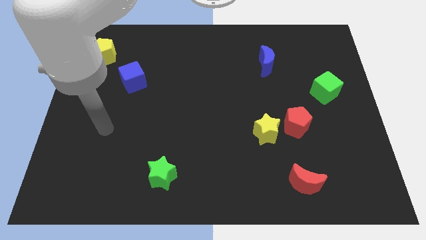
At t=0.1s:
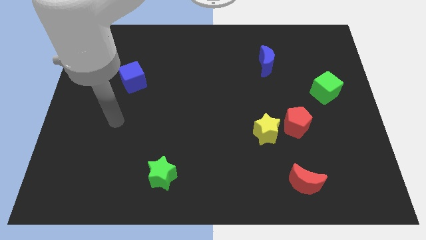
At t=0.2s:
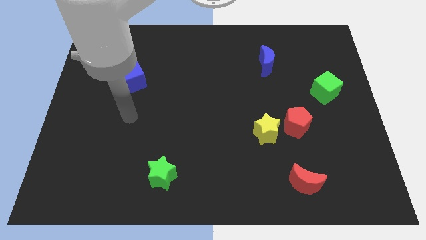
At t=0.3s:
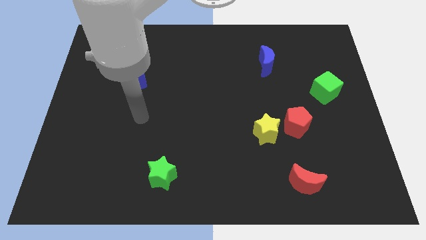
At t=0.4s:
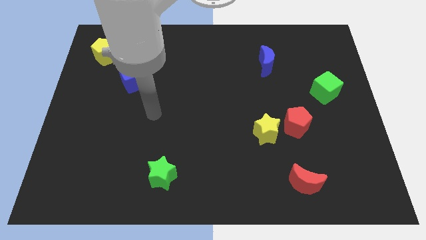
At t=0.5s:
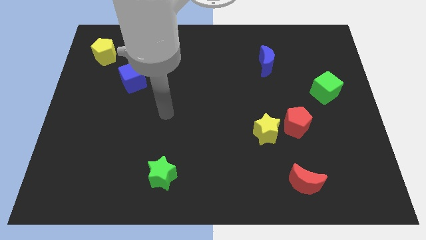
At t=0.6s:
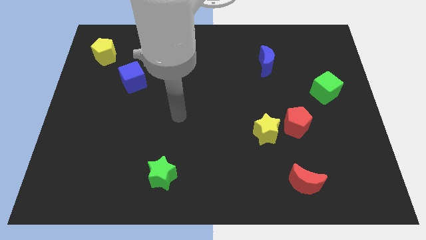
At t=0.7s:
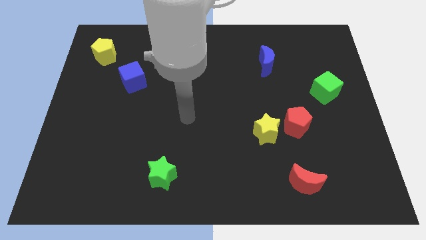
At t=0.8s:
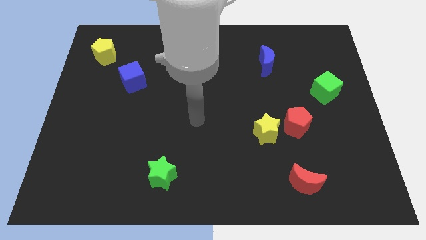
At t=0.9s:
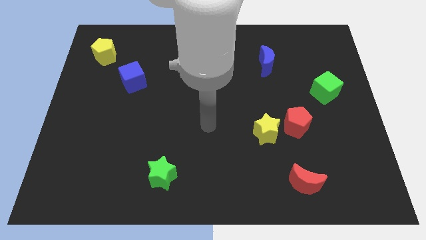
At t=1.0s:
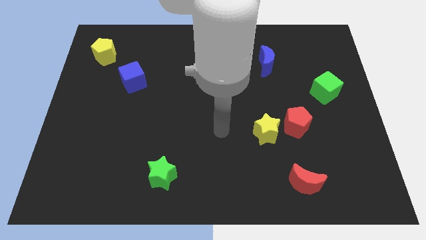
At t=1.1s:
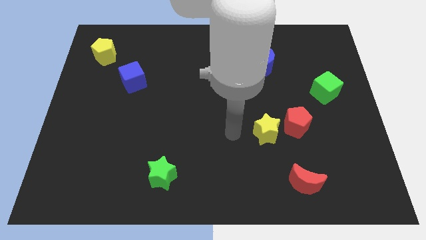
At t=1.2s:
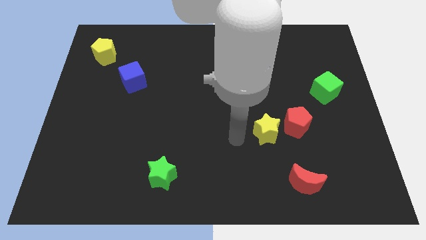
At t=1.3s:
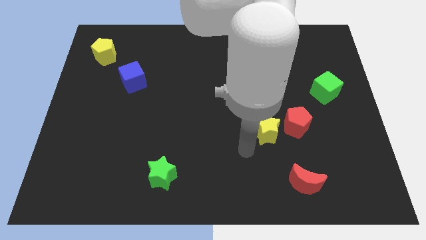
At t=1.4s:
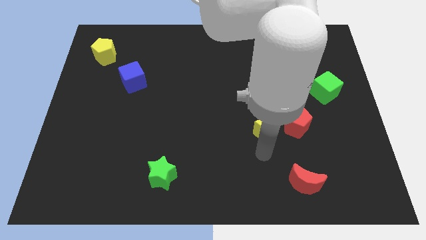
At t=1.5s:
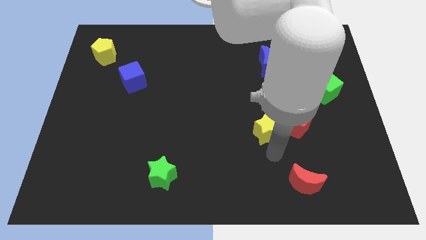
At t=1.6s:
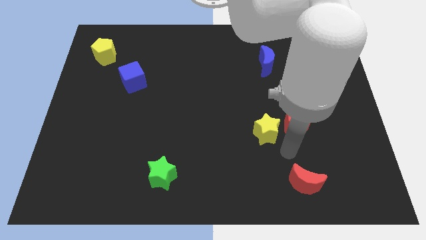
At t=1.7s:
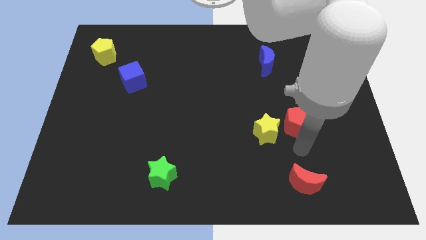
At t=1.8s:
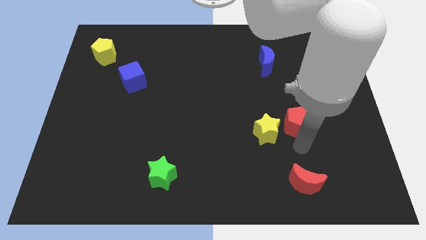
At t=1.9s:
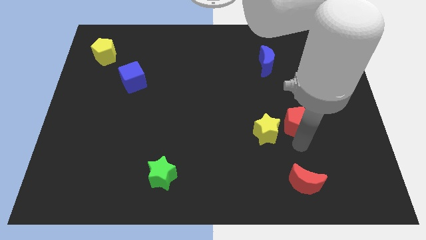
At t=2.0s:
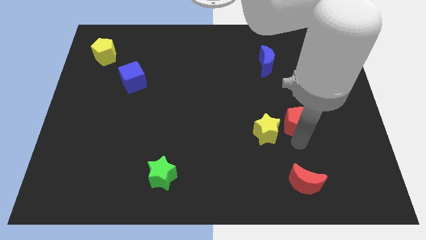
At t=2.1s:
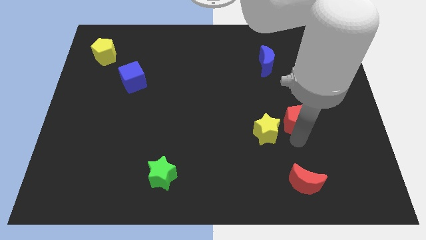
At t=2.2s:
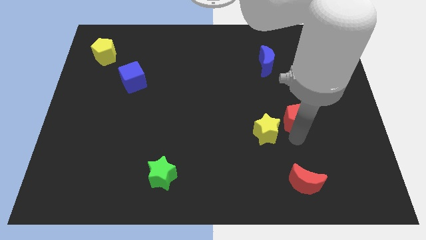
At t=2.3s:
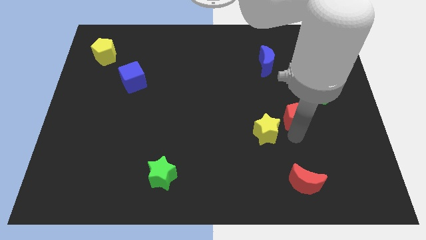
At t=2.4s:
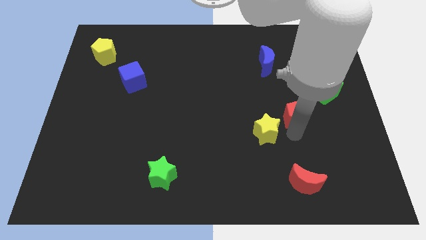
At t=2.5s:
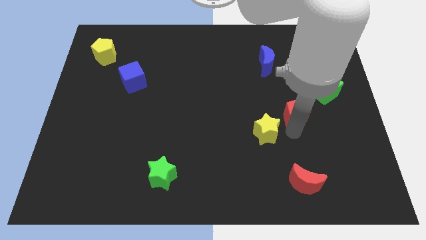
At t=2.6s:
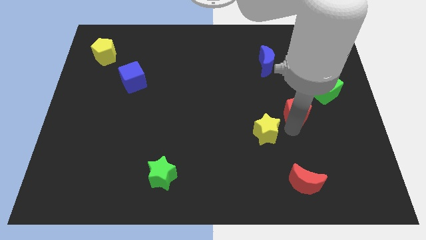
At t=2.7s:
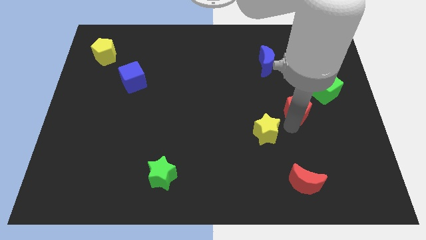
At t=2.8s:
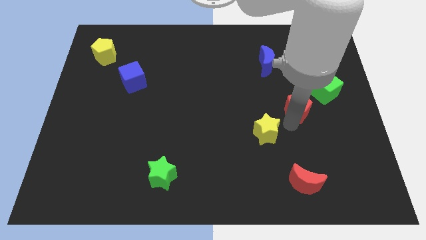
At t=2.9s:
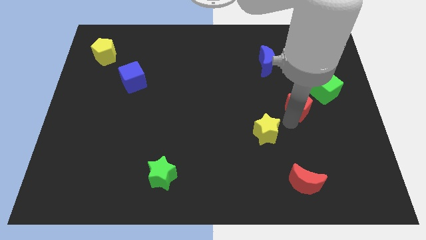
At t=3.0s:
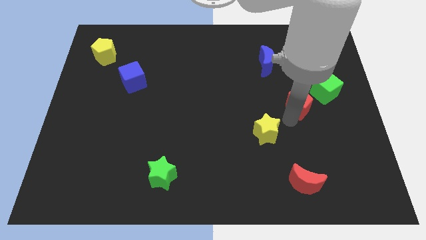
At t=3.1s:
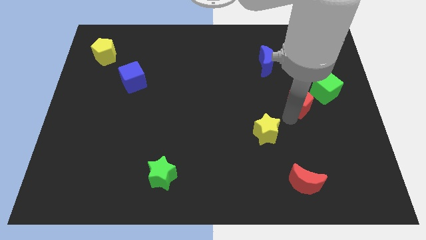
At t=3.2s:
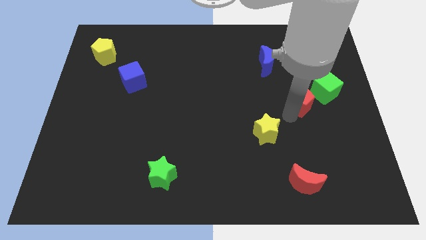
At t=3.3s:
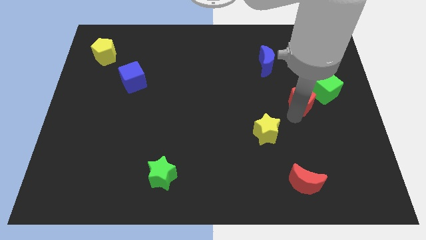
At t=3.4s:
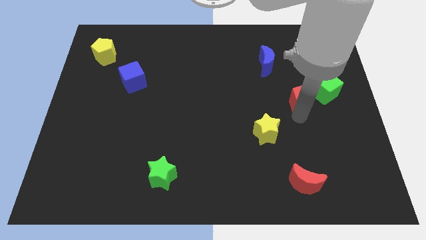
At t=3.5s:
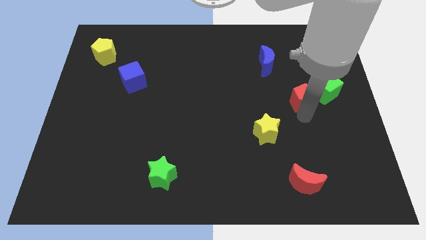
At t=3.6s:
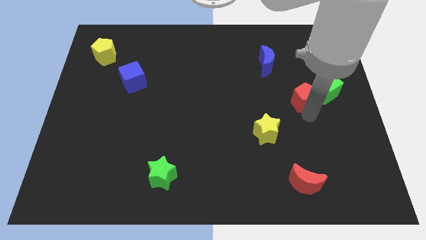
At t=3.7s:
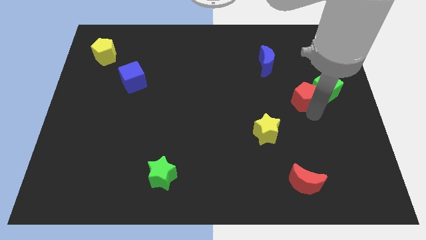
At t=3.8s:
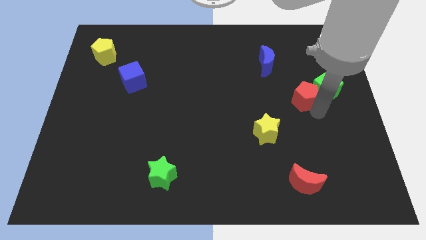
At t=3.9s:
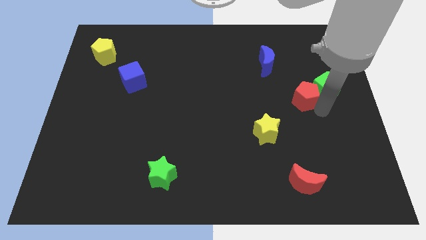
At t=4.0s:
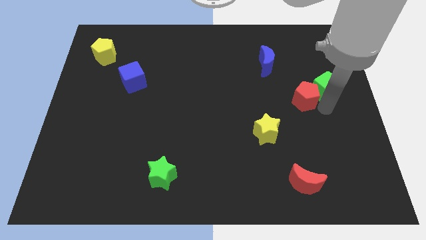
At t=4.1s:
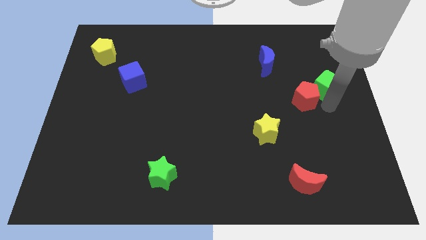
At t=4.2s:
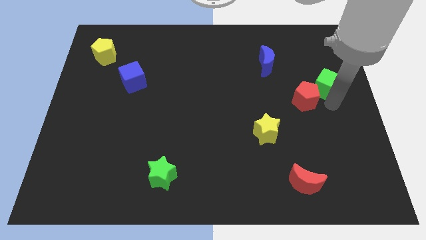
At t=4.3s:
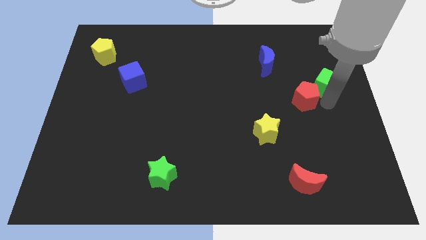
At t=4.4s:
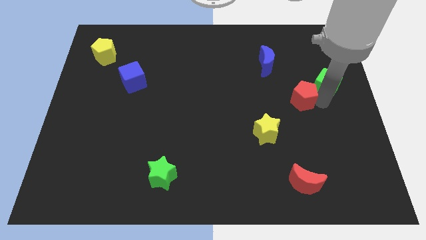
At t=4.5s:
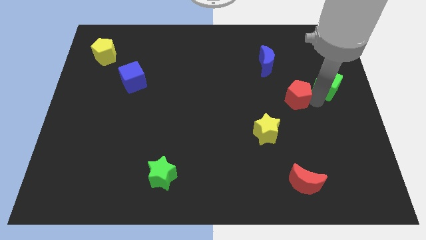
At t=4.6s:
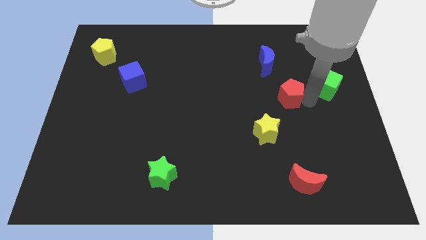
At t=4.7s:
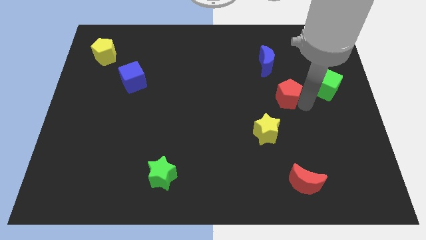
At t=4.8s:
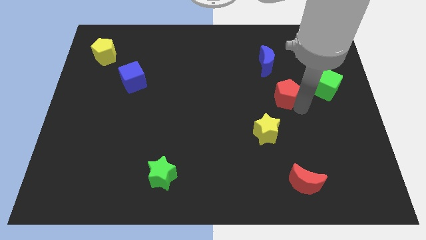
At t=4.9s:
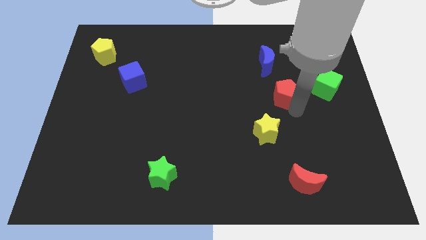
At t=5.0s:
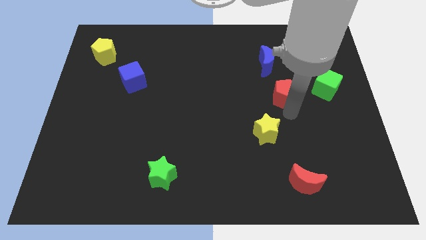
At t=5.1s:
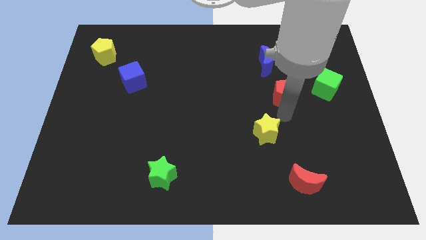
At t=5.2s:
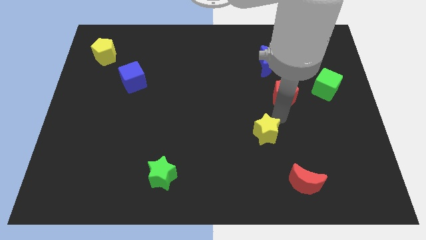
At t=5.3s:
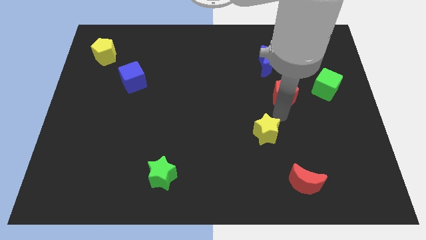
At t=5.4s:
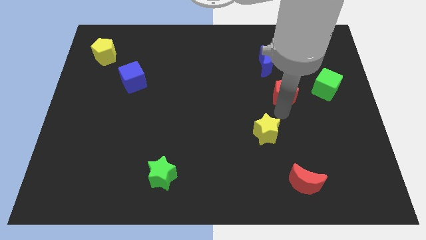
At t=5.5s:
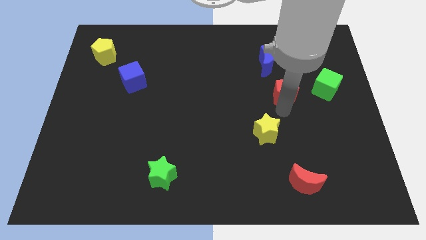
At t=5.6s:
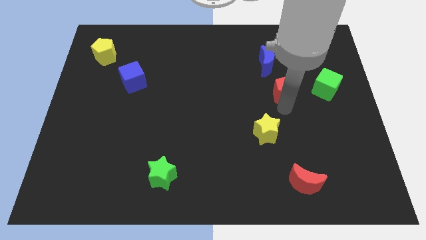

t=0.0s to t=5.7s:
move the red pentagon to the bottom right side of the blue moon

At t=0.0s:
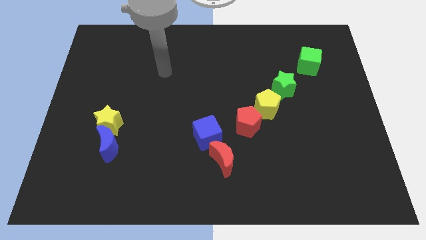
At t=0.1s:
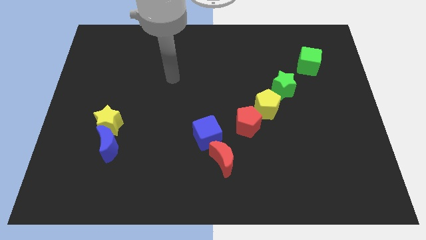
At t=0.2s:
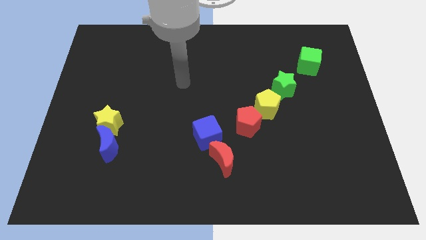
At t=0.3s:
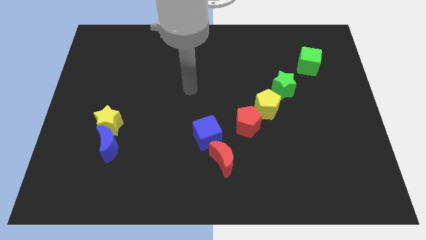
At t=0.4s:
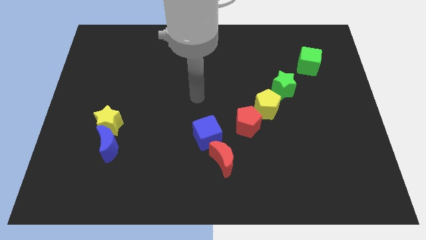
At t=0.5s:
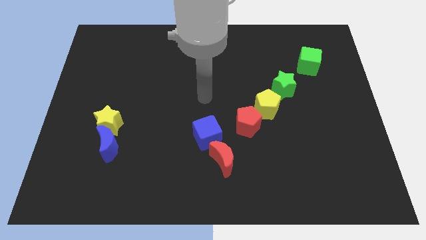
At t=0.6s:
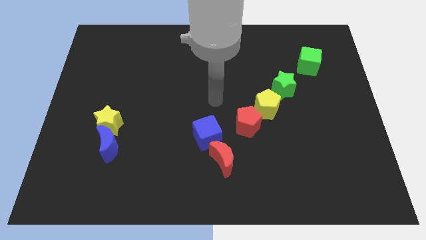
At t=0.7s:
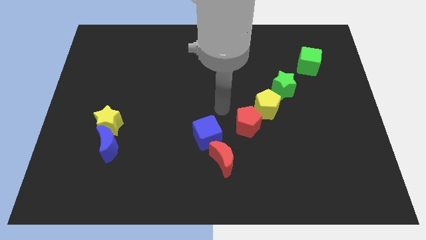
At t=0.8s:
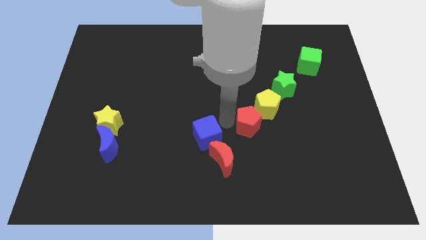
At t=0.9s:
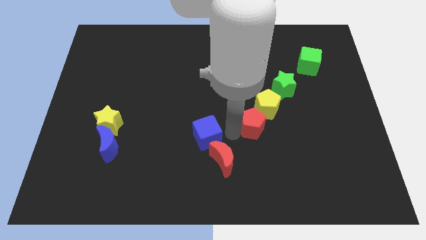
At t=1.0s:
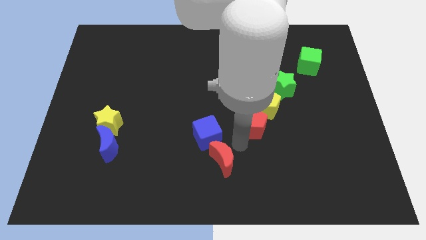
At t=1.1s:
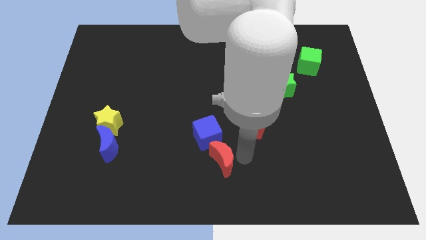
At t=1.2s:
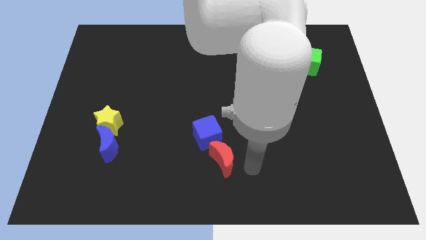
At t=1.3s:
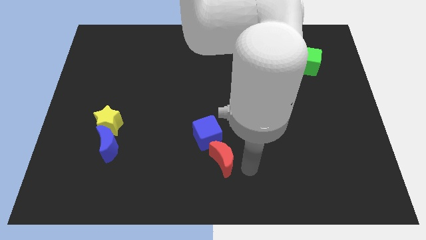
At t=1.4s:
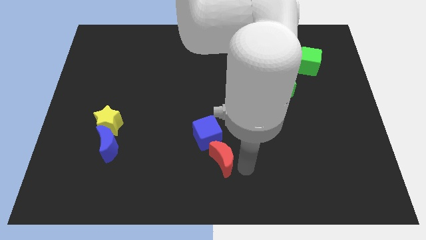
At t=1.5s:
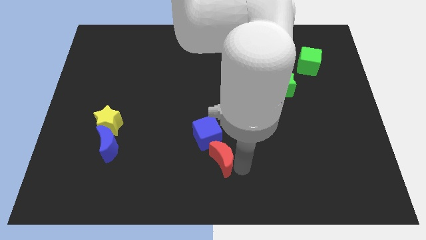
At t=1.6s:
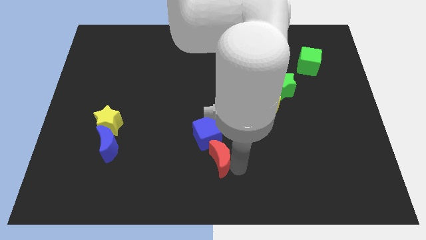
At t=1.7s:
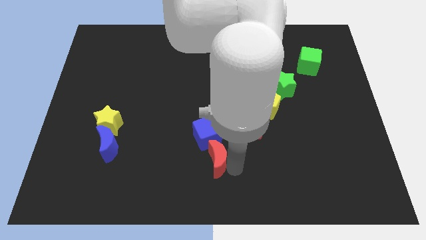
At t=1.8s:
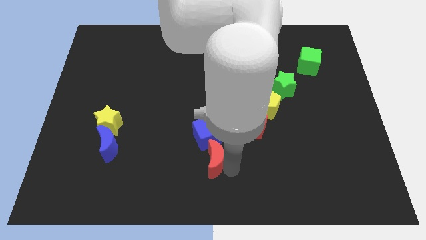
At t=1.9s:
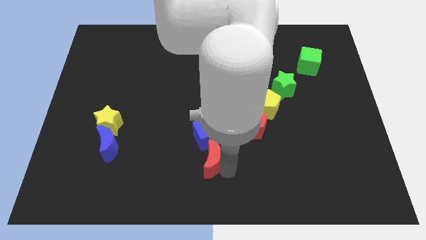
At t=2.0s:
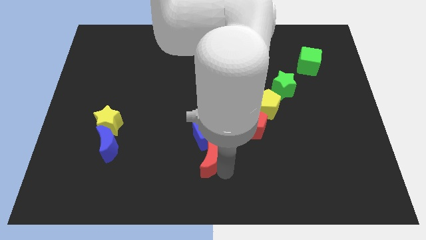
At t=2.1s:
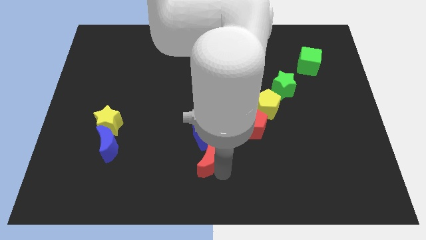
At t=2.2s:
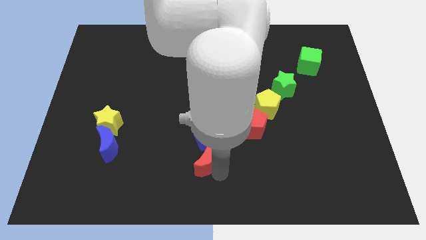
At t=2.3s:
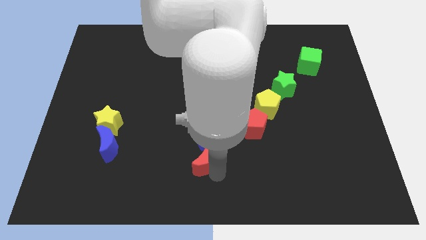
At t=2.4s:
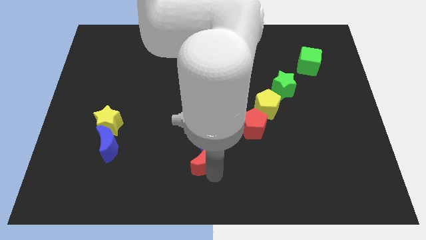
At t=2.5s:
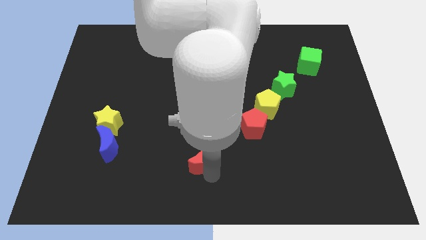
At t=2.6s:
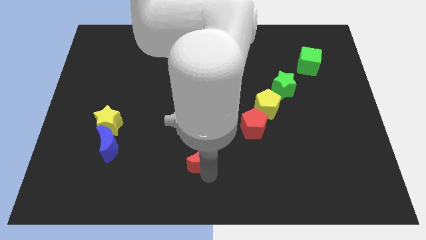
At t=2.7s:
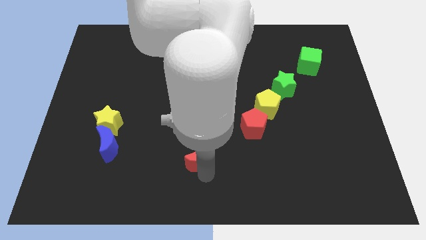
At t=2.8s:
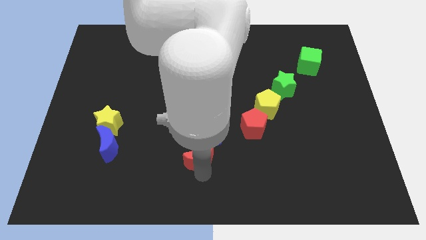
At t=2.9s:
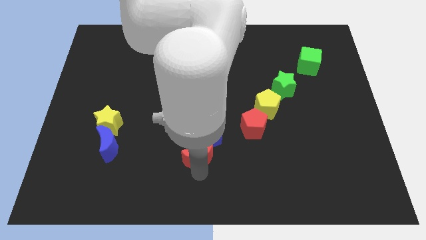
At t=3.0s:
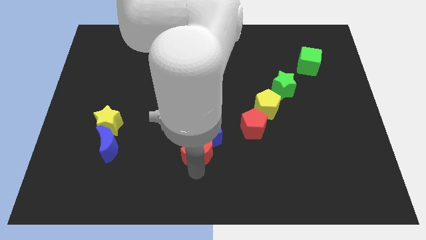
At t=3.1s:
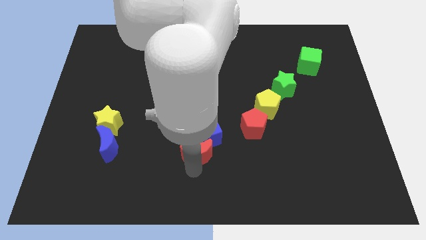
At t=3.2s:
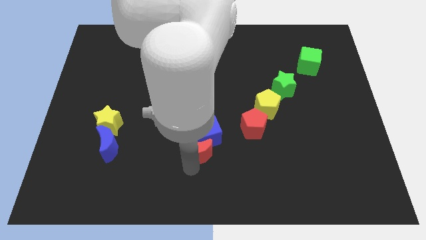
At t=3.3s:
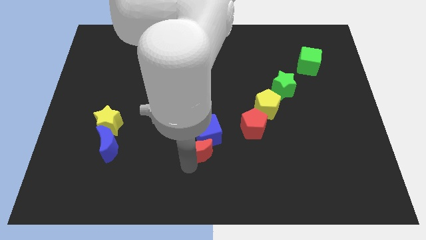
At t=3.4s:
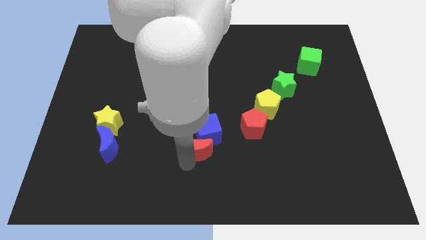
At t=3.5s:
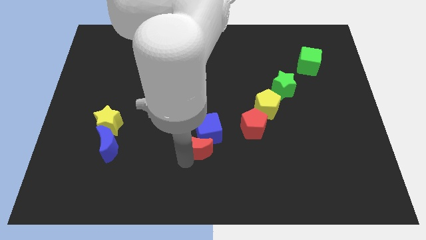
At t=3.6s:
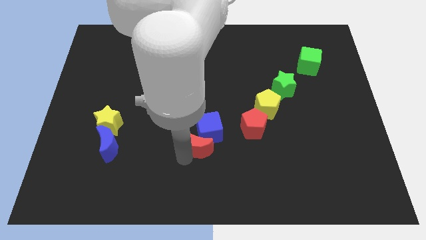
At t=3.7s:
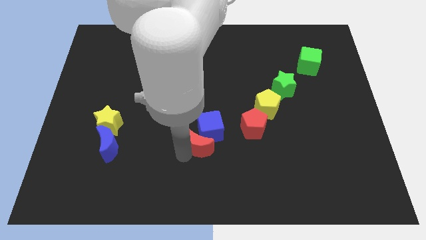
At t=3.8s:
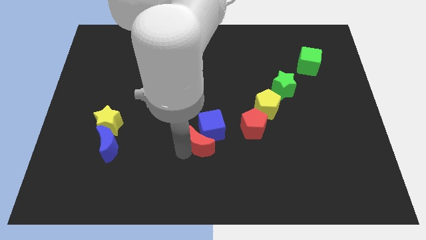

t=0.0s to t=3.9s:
move the red moon left of the red pentagon
